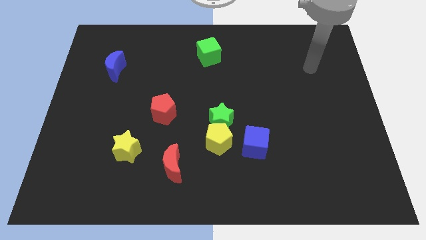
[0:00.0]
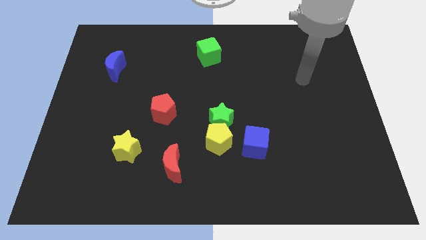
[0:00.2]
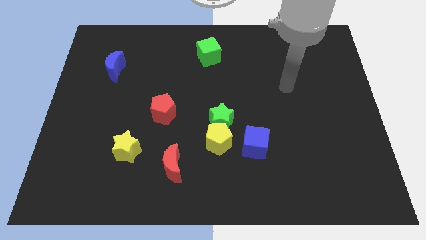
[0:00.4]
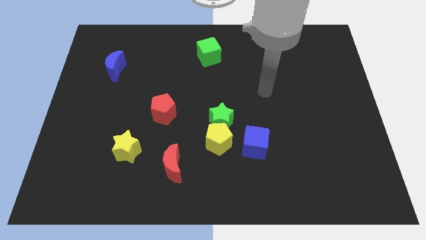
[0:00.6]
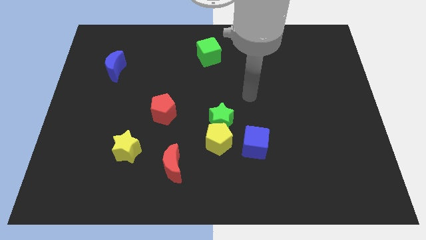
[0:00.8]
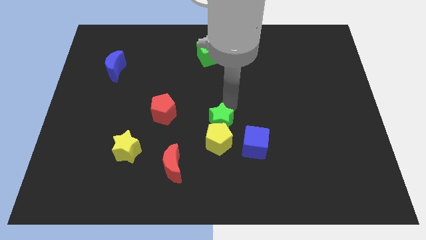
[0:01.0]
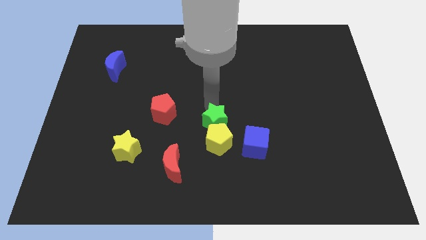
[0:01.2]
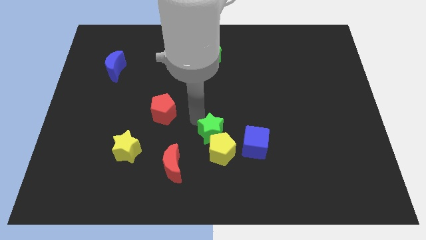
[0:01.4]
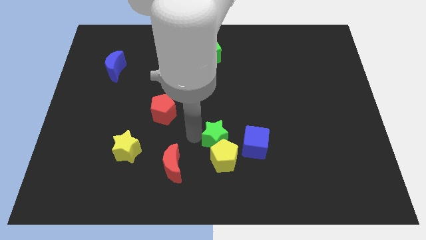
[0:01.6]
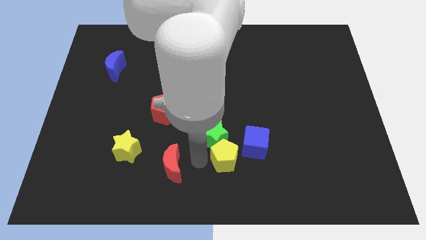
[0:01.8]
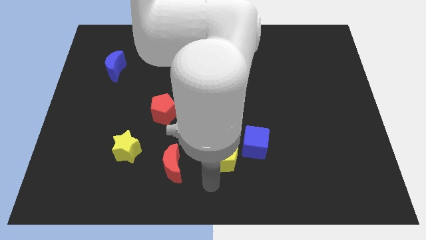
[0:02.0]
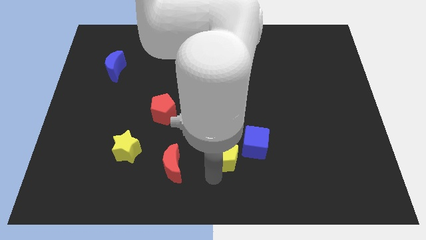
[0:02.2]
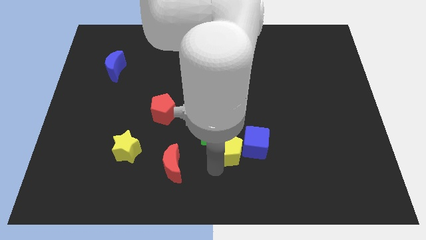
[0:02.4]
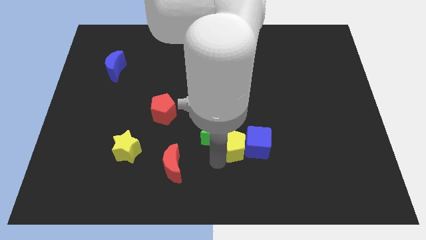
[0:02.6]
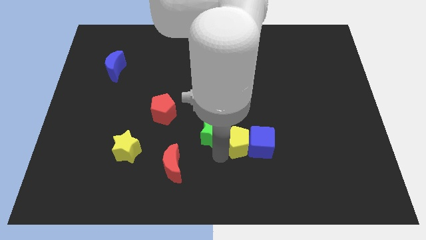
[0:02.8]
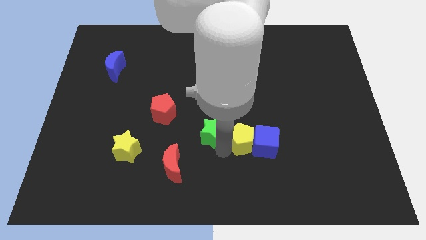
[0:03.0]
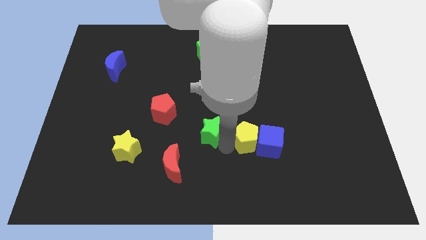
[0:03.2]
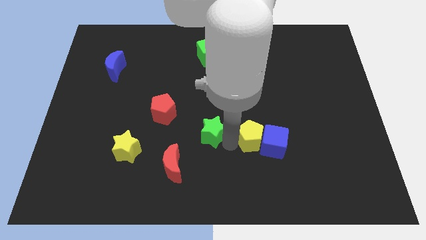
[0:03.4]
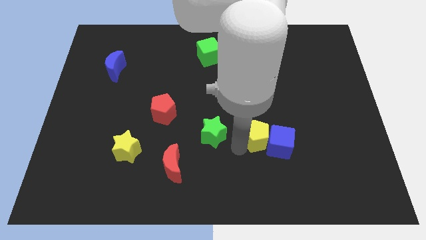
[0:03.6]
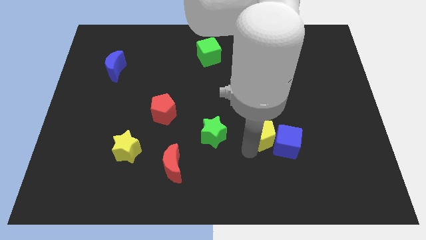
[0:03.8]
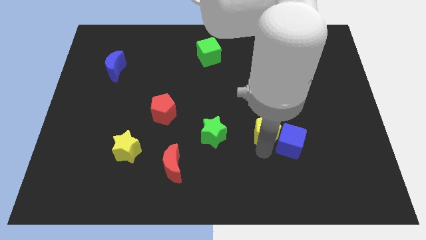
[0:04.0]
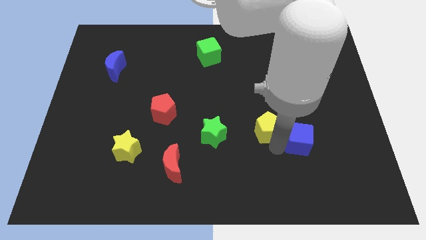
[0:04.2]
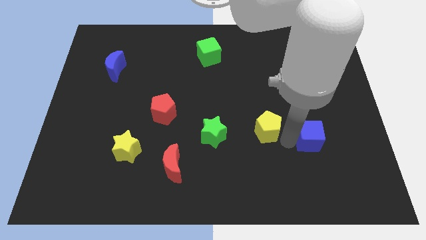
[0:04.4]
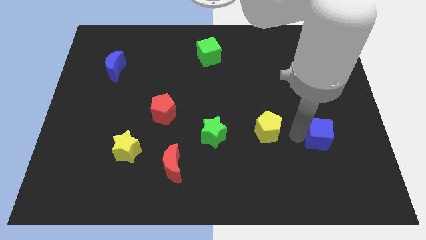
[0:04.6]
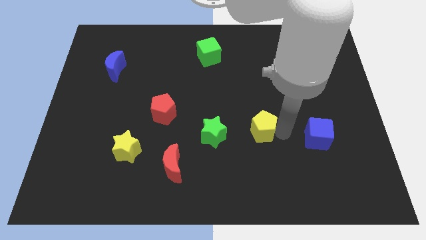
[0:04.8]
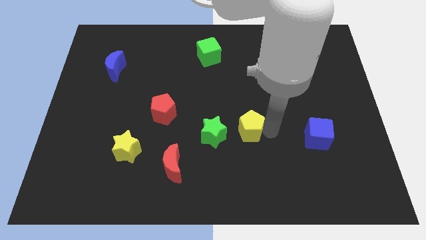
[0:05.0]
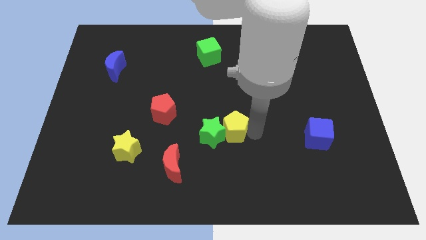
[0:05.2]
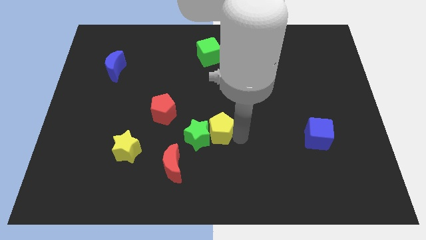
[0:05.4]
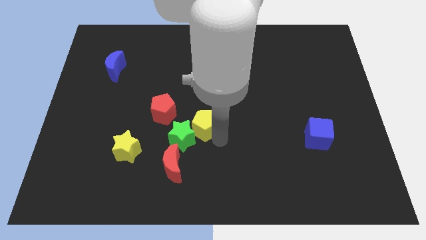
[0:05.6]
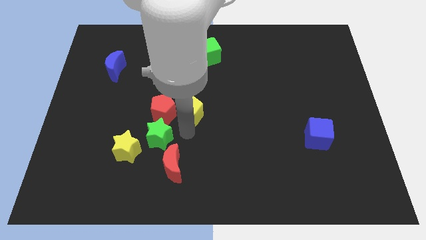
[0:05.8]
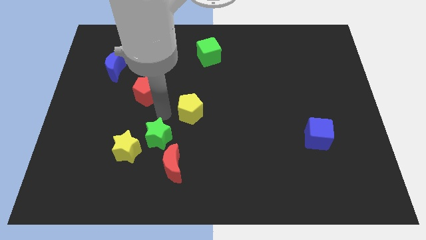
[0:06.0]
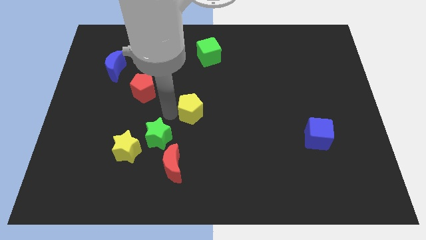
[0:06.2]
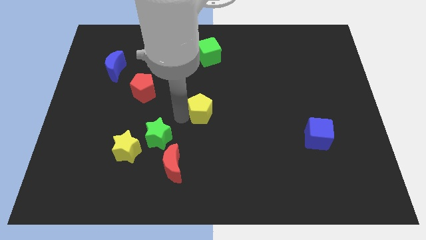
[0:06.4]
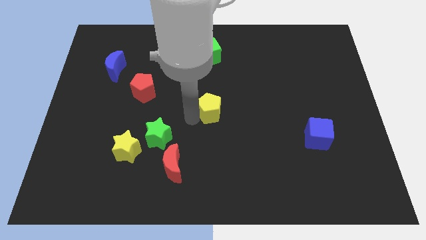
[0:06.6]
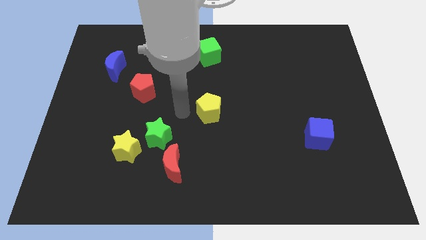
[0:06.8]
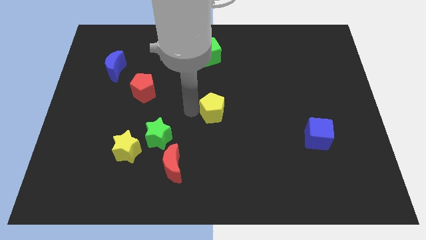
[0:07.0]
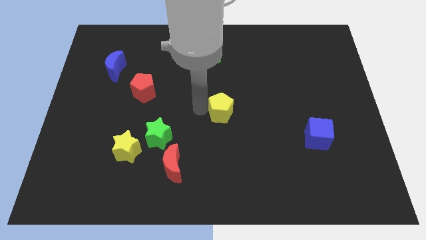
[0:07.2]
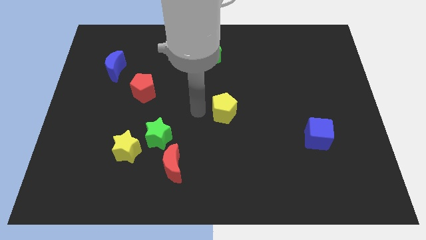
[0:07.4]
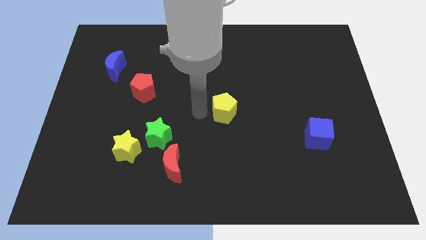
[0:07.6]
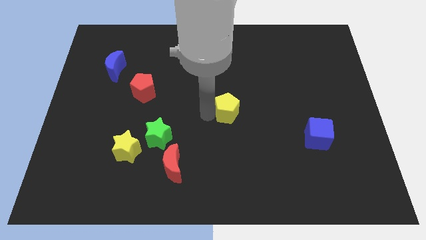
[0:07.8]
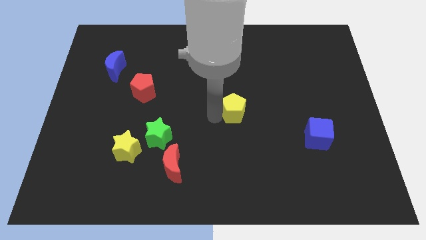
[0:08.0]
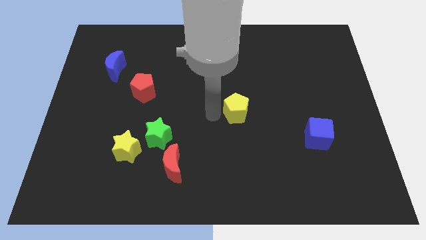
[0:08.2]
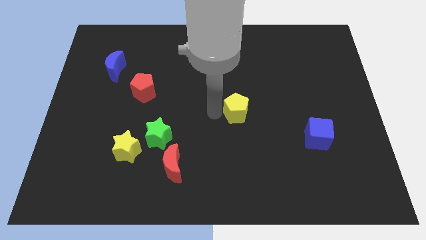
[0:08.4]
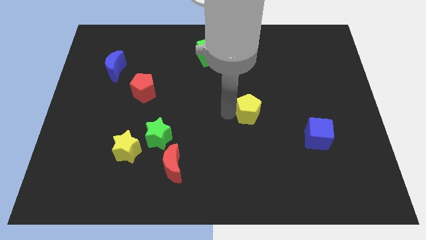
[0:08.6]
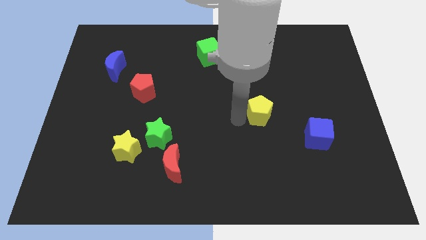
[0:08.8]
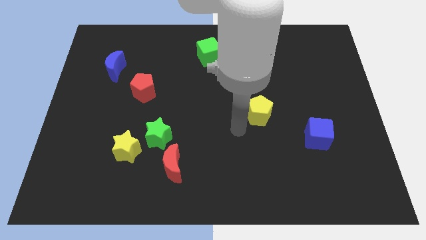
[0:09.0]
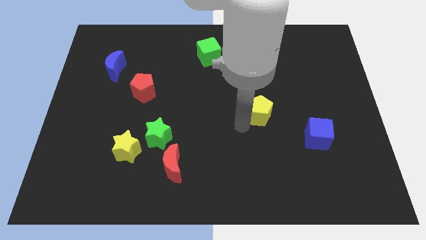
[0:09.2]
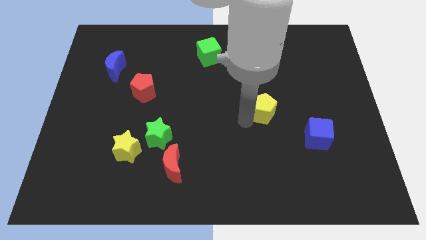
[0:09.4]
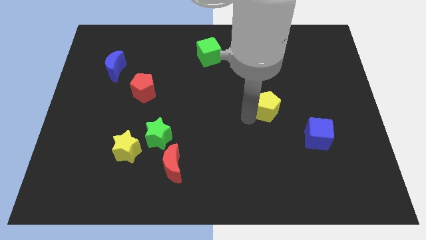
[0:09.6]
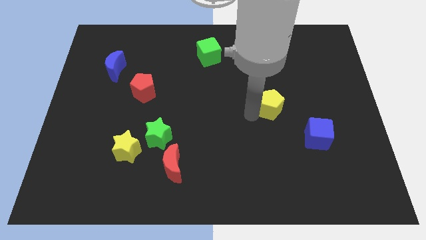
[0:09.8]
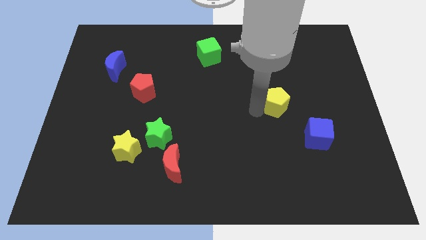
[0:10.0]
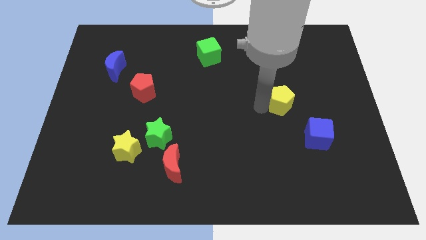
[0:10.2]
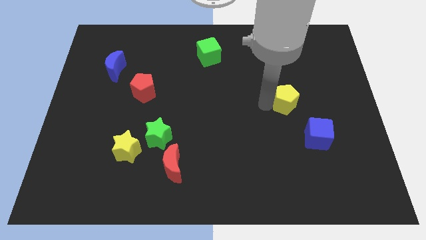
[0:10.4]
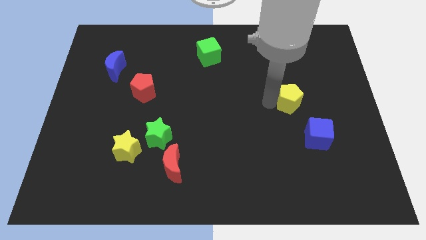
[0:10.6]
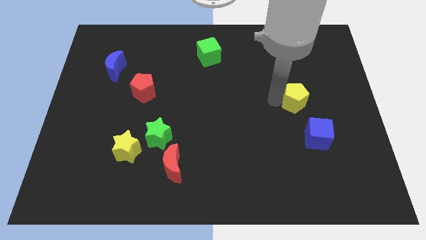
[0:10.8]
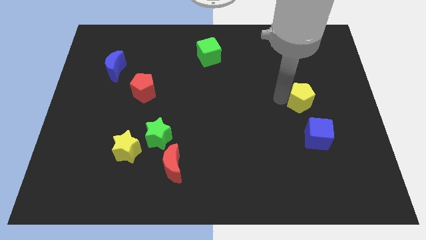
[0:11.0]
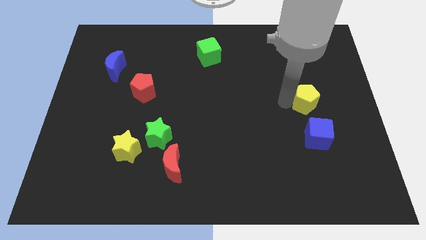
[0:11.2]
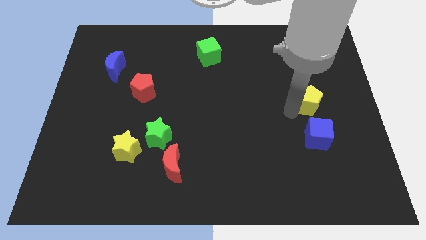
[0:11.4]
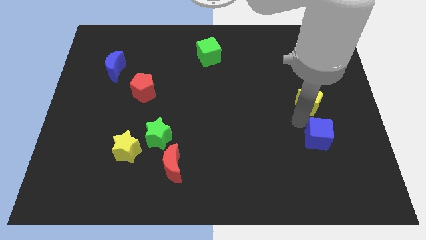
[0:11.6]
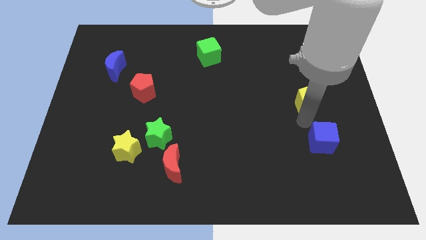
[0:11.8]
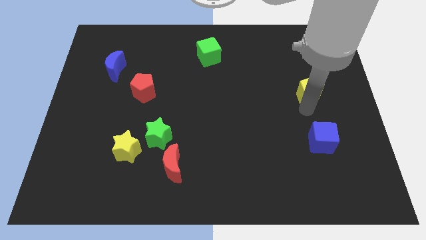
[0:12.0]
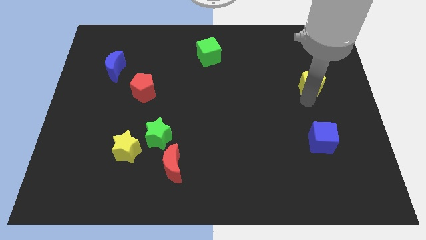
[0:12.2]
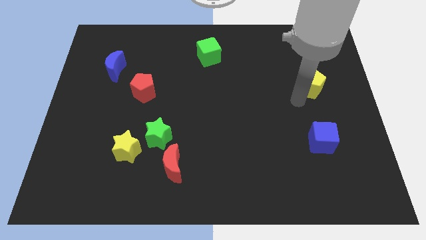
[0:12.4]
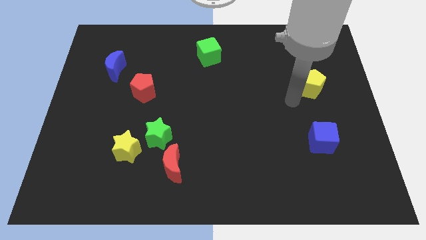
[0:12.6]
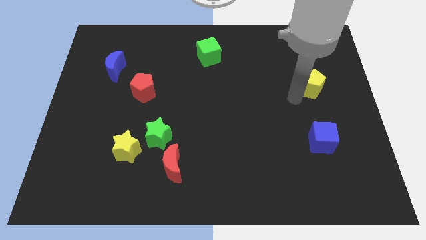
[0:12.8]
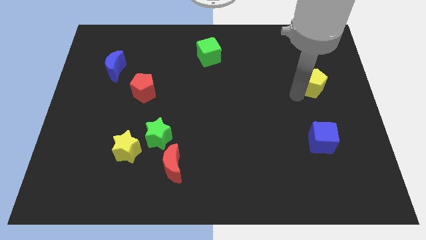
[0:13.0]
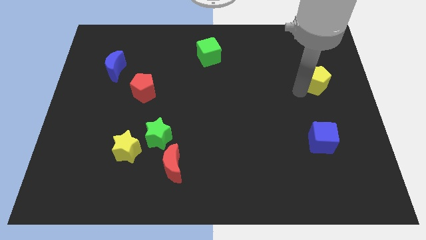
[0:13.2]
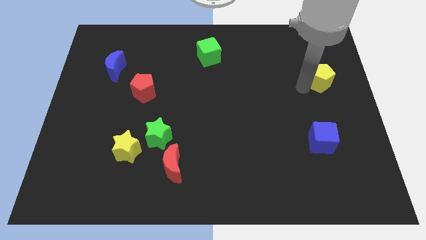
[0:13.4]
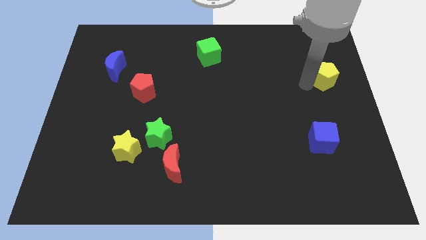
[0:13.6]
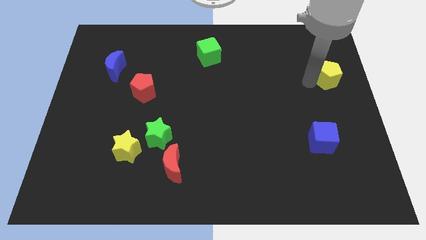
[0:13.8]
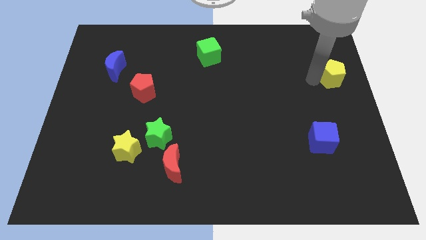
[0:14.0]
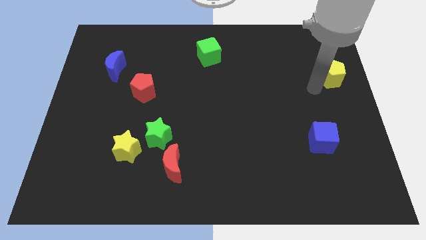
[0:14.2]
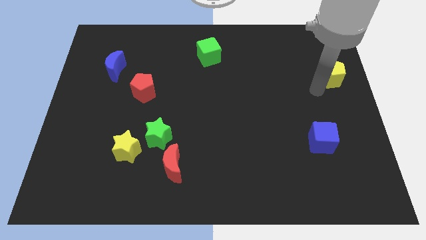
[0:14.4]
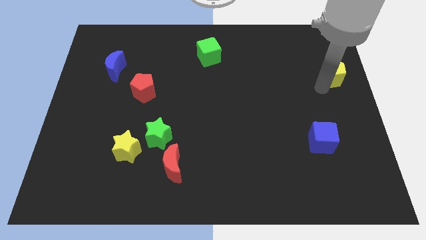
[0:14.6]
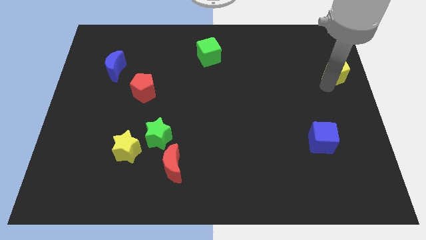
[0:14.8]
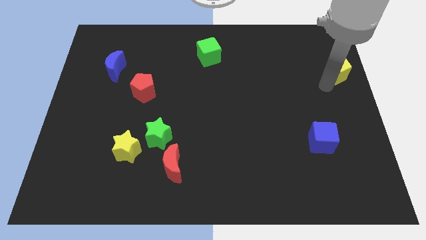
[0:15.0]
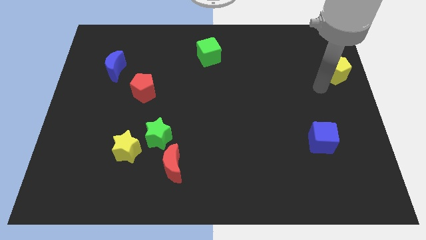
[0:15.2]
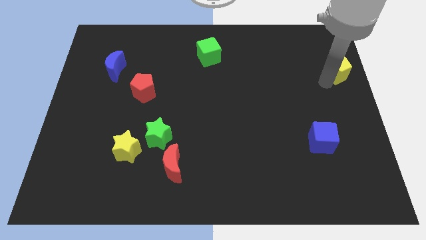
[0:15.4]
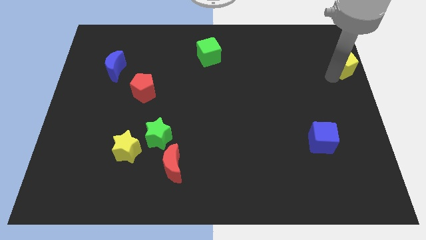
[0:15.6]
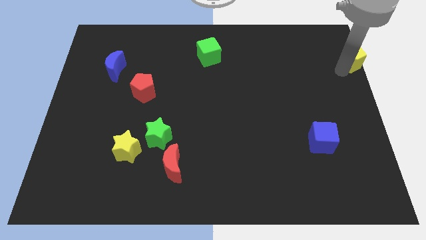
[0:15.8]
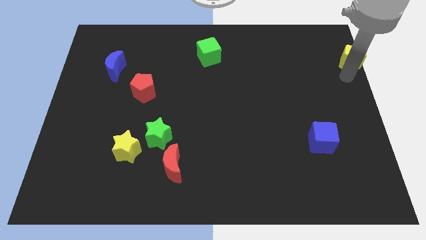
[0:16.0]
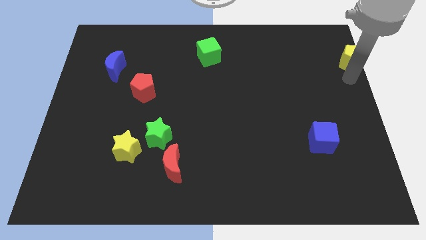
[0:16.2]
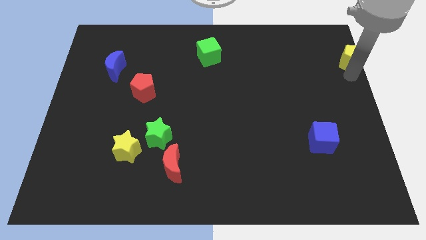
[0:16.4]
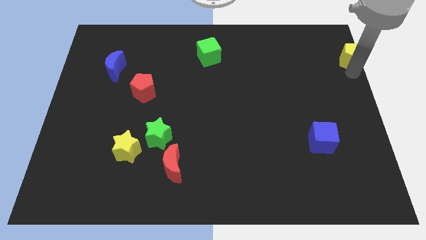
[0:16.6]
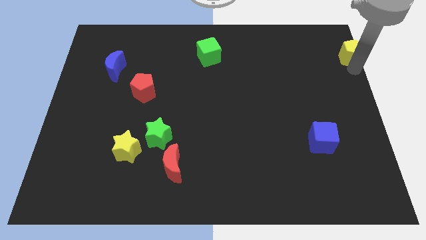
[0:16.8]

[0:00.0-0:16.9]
slide the yellow pentagon to the top right corner
